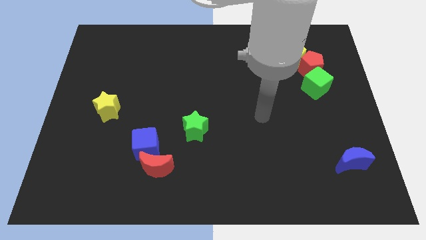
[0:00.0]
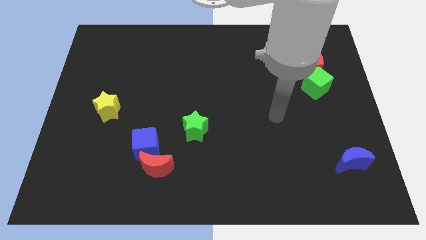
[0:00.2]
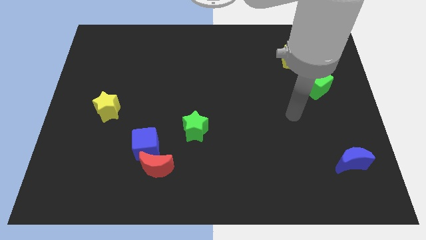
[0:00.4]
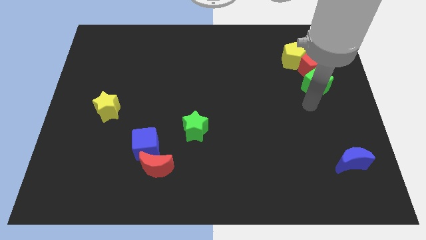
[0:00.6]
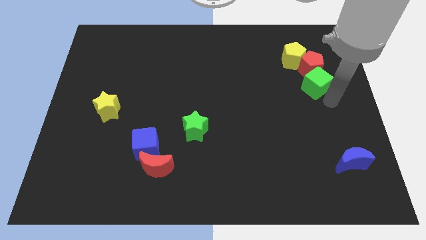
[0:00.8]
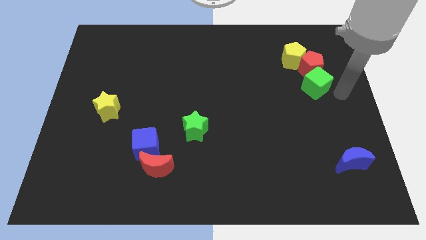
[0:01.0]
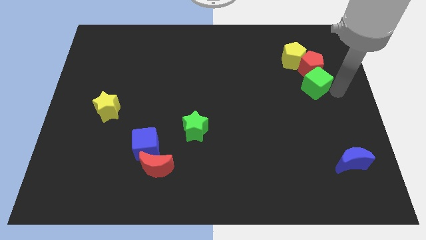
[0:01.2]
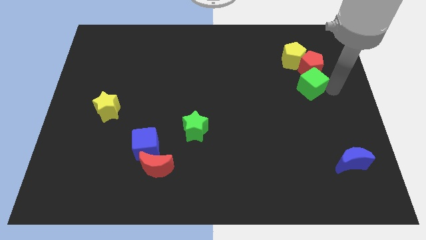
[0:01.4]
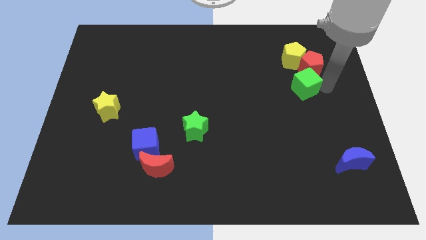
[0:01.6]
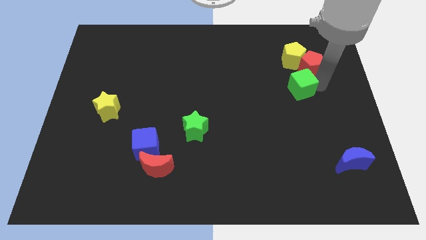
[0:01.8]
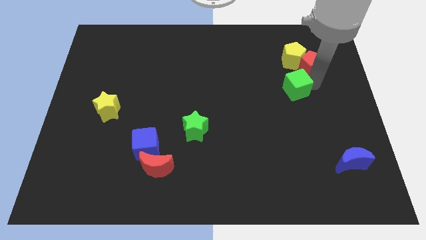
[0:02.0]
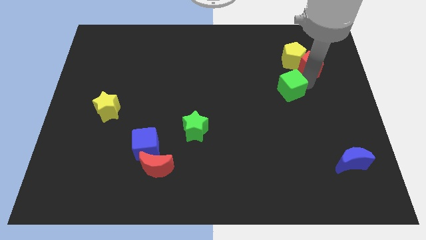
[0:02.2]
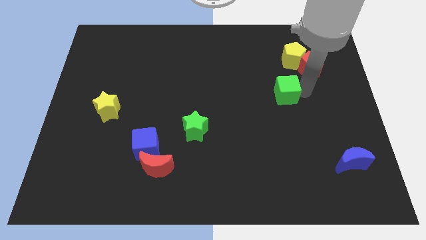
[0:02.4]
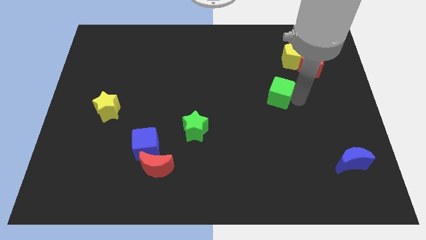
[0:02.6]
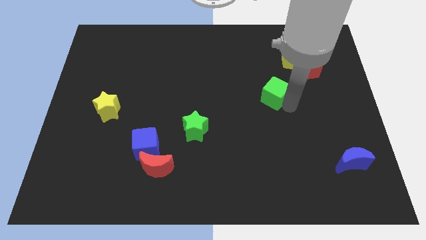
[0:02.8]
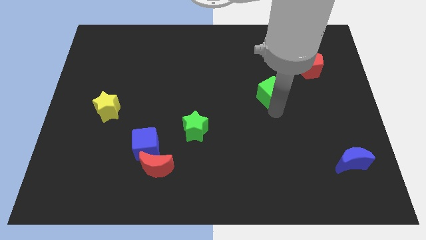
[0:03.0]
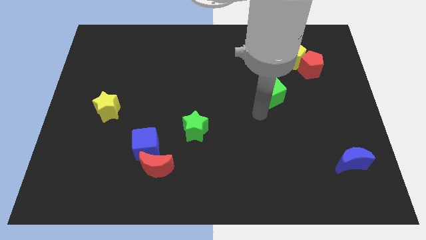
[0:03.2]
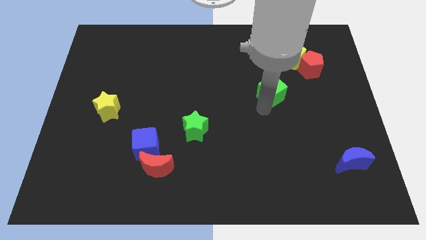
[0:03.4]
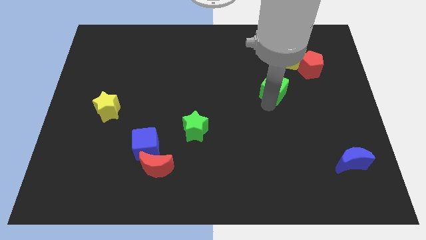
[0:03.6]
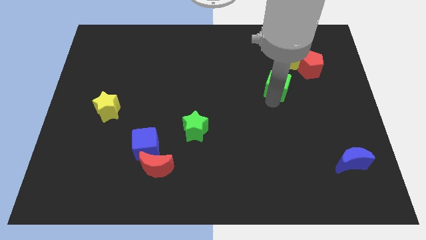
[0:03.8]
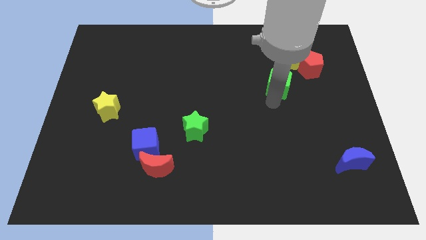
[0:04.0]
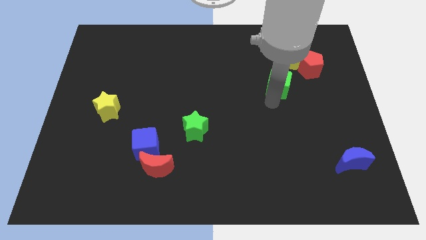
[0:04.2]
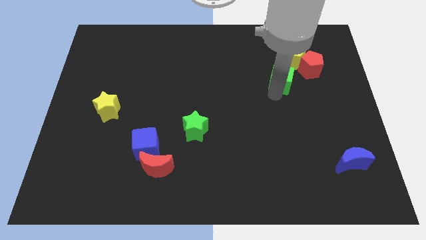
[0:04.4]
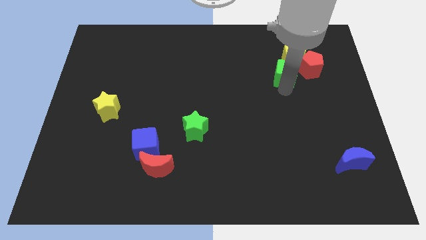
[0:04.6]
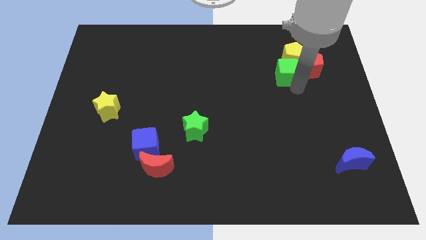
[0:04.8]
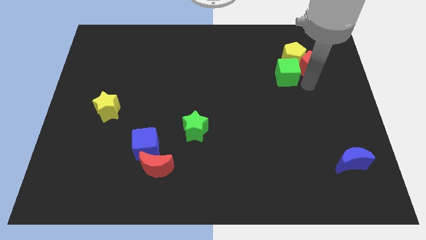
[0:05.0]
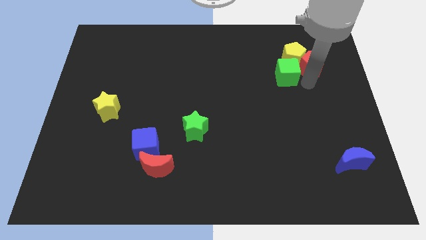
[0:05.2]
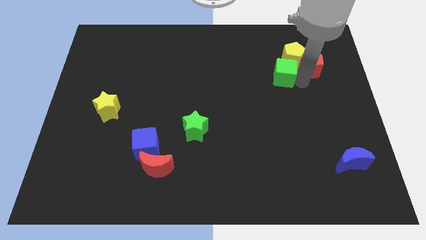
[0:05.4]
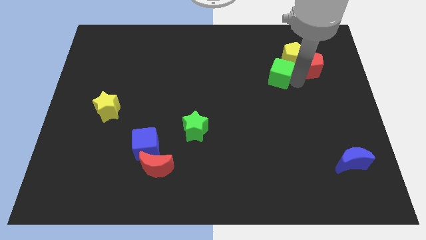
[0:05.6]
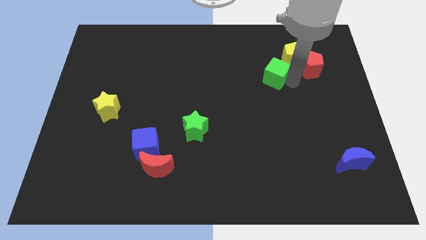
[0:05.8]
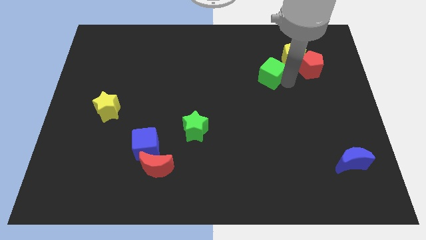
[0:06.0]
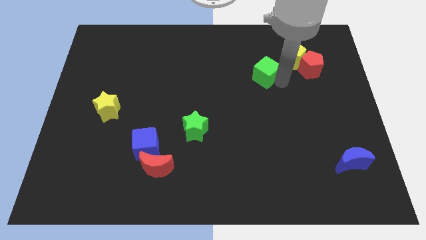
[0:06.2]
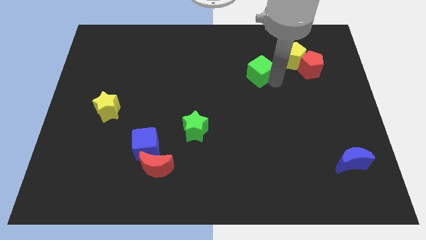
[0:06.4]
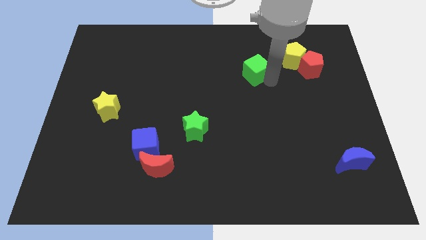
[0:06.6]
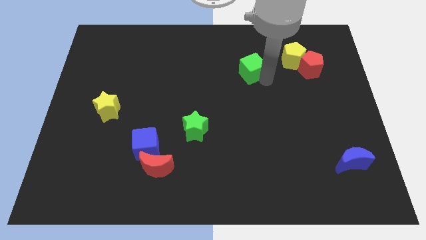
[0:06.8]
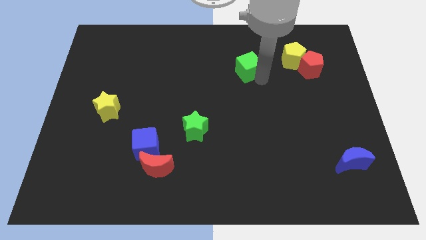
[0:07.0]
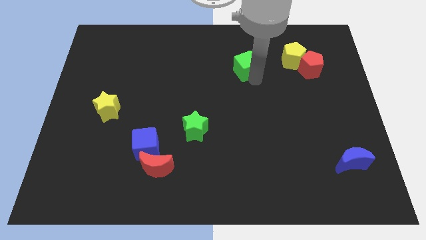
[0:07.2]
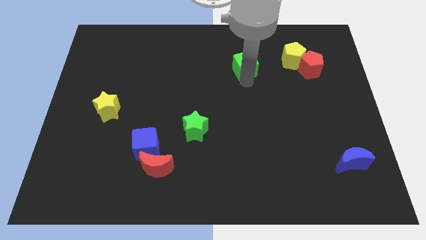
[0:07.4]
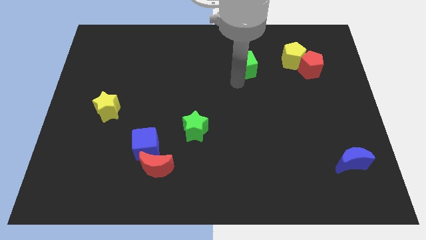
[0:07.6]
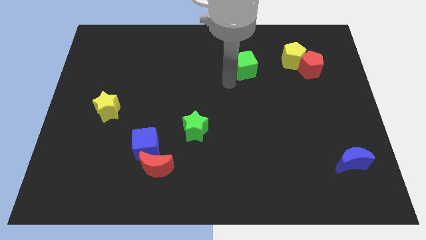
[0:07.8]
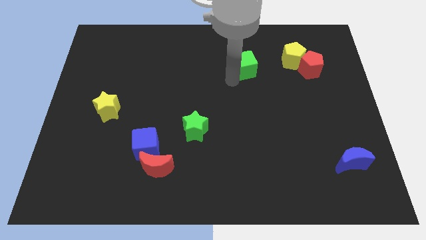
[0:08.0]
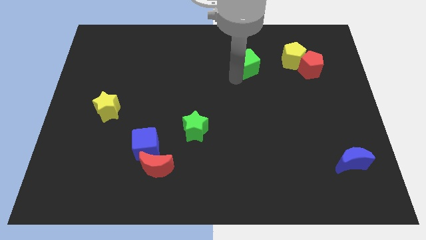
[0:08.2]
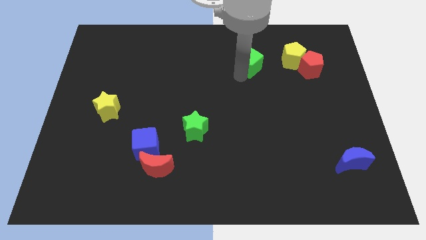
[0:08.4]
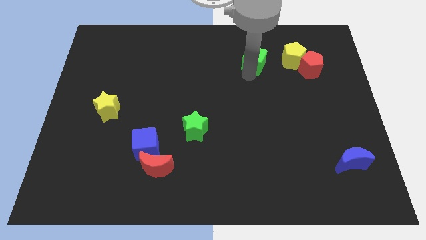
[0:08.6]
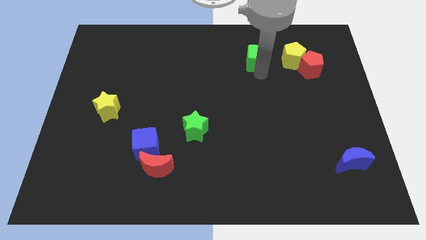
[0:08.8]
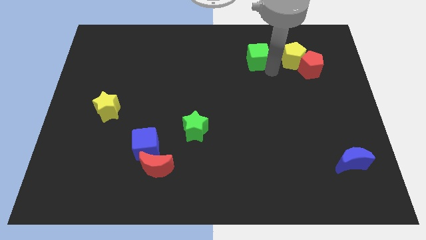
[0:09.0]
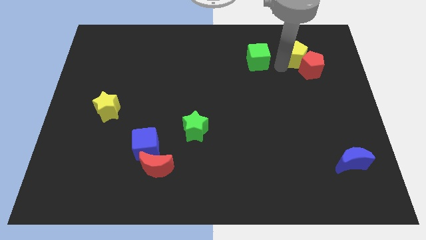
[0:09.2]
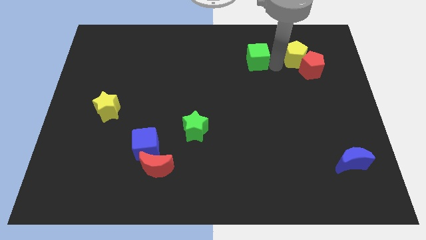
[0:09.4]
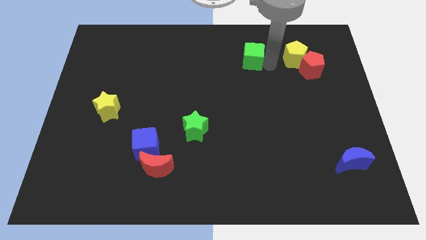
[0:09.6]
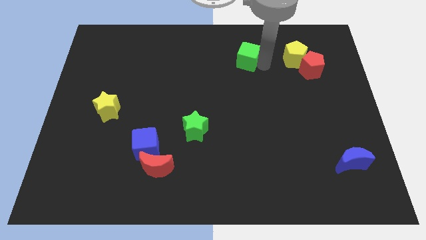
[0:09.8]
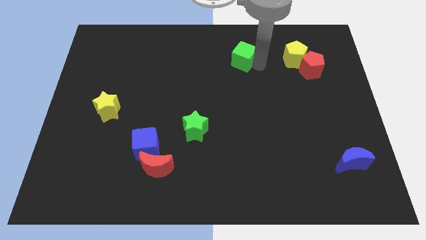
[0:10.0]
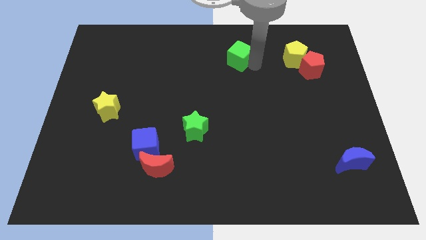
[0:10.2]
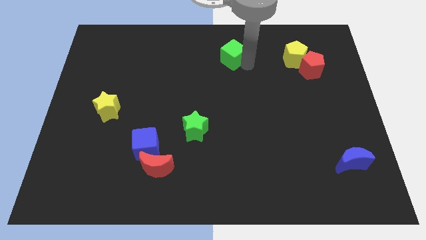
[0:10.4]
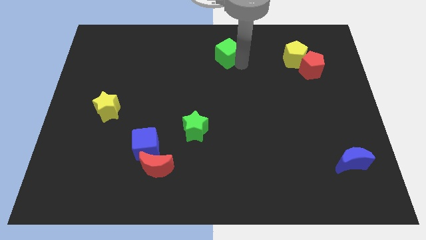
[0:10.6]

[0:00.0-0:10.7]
slide the green cube to the towards your base

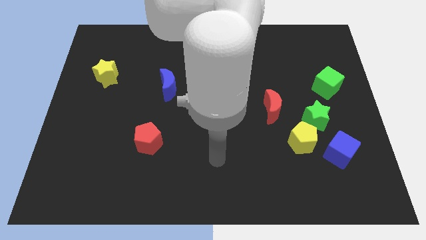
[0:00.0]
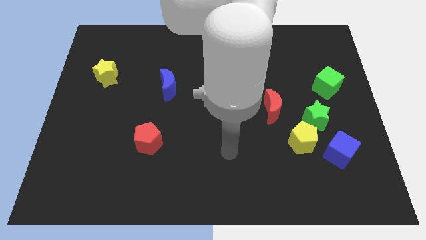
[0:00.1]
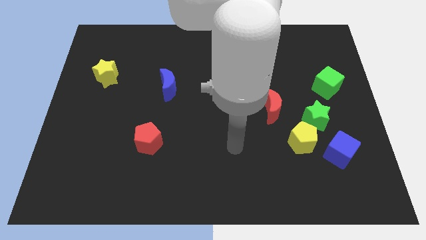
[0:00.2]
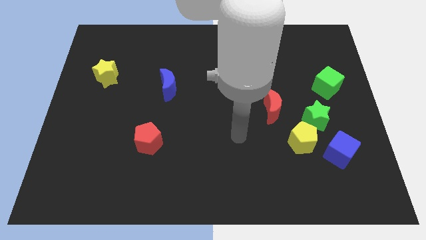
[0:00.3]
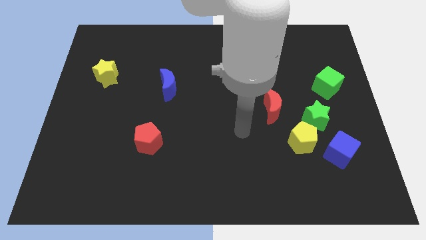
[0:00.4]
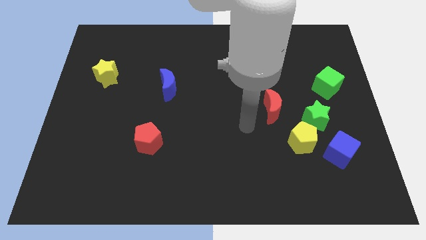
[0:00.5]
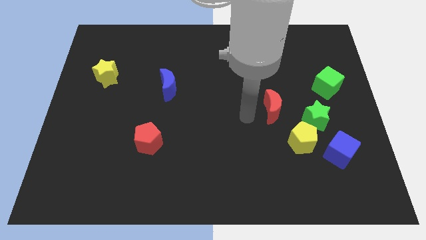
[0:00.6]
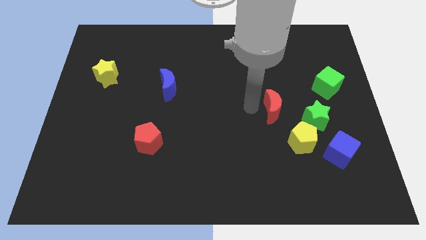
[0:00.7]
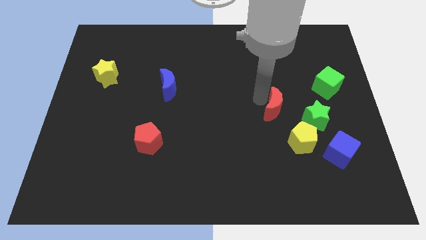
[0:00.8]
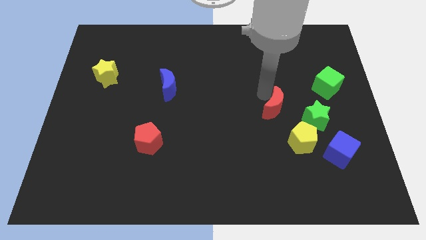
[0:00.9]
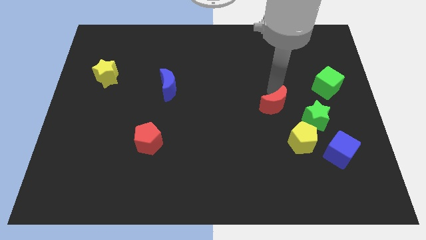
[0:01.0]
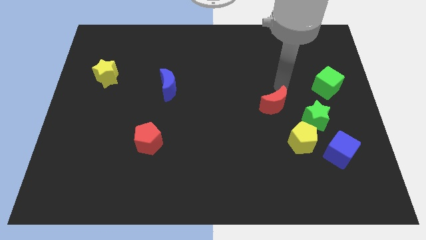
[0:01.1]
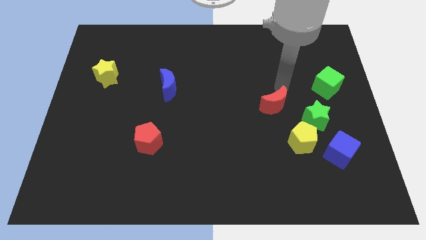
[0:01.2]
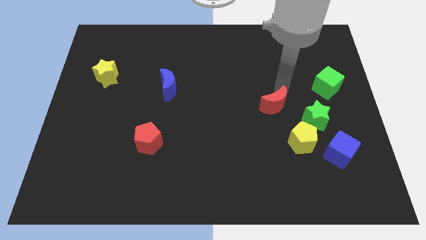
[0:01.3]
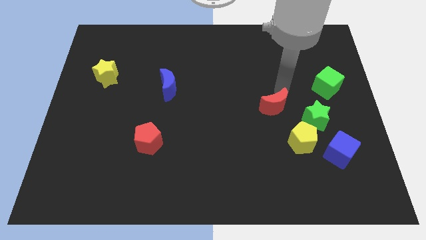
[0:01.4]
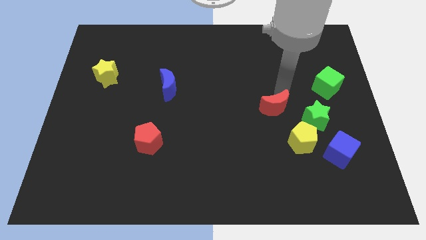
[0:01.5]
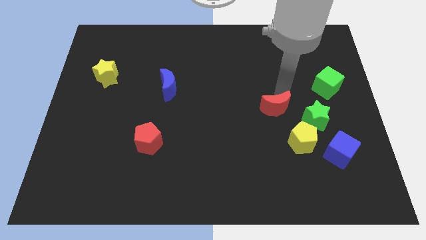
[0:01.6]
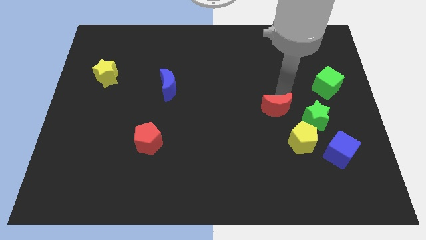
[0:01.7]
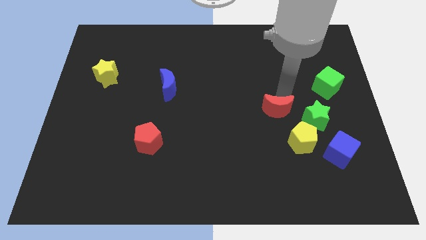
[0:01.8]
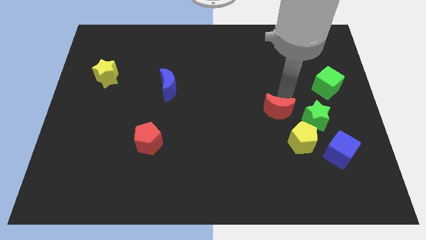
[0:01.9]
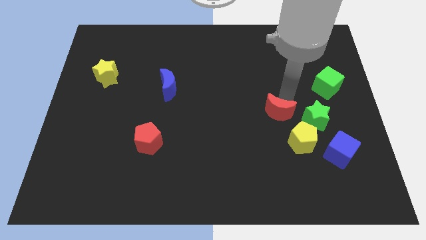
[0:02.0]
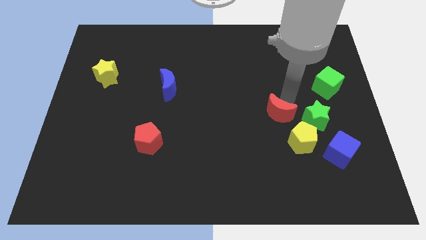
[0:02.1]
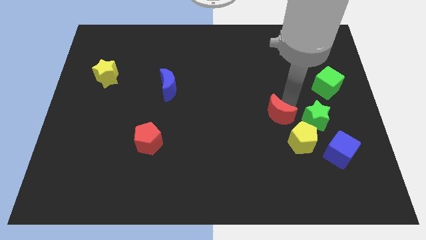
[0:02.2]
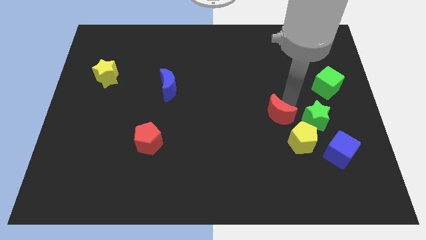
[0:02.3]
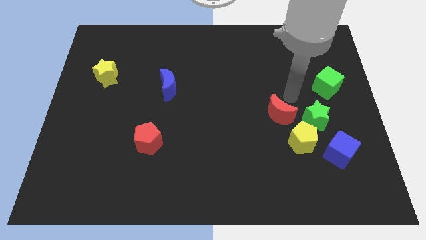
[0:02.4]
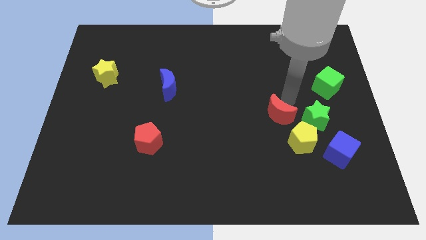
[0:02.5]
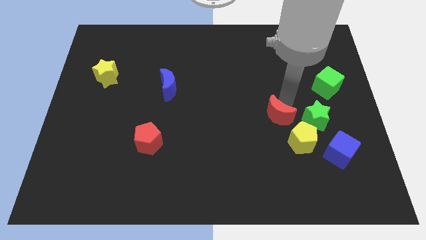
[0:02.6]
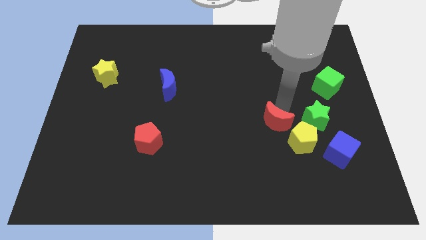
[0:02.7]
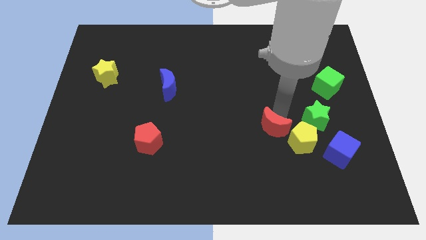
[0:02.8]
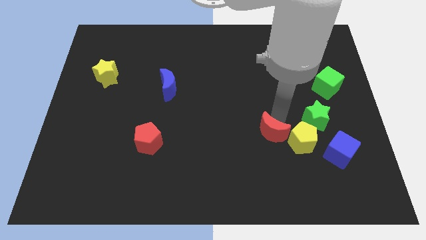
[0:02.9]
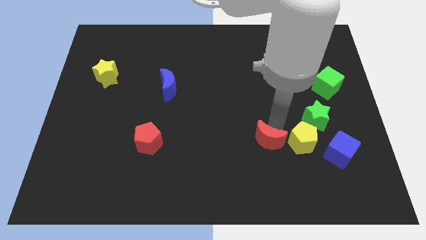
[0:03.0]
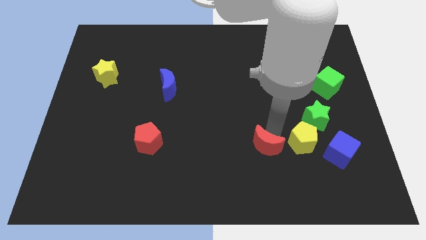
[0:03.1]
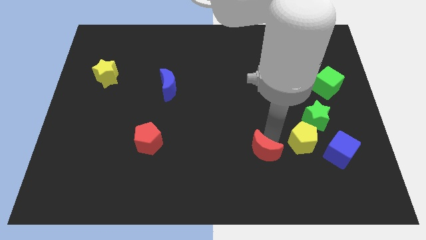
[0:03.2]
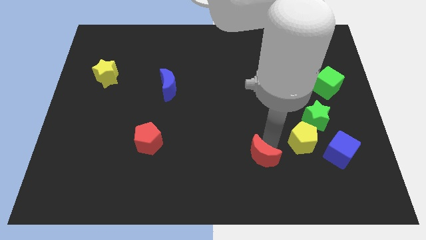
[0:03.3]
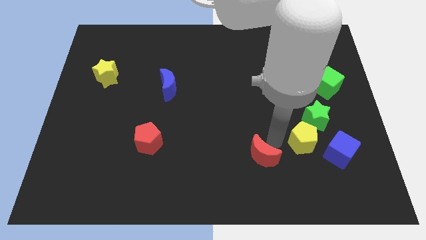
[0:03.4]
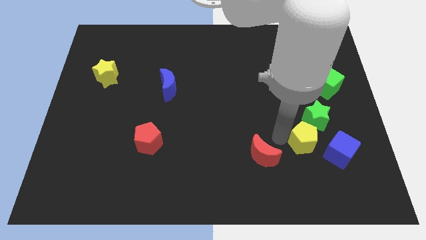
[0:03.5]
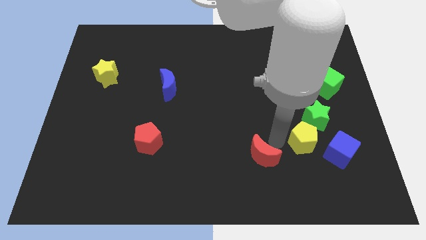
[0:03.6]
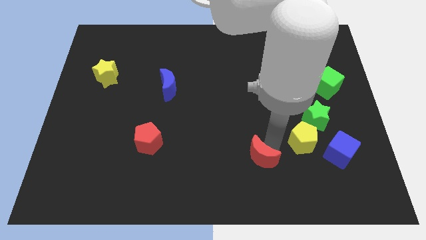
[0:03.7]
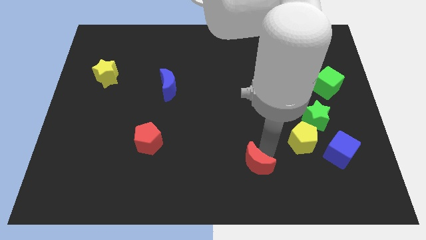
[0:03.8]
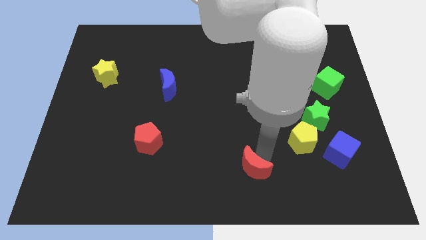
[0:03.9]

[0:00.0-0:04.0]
move the red moon to the bottom side
